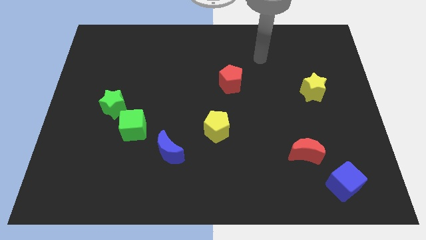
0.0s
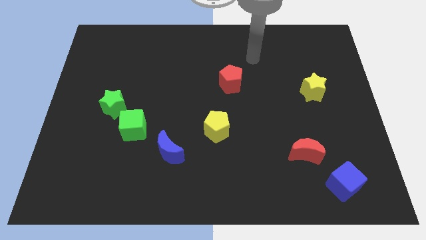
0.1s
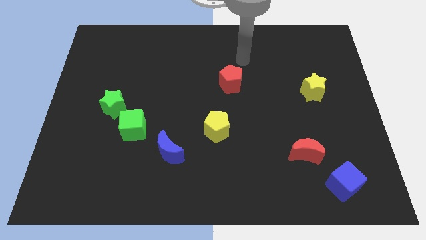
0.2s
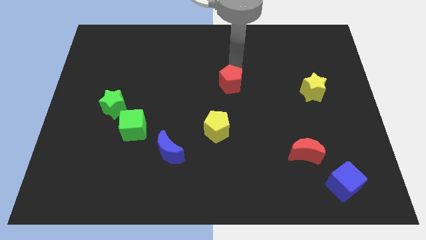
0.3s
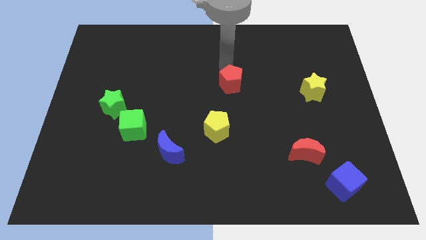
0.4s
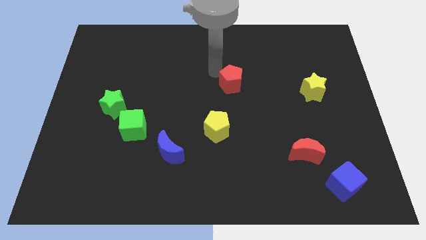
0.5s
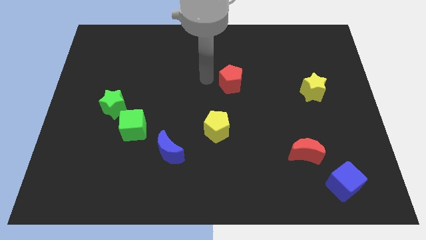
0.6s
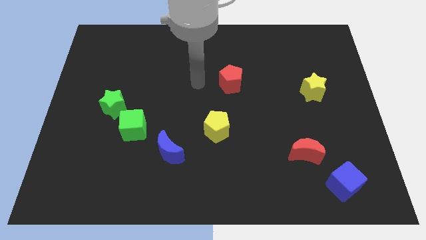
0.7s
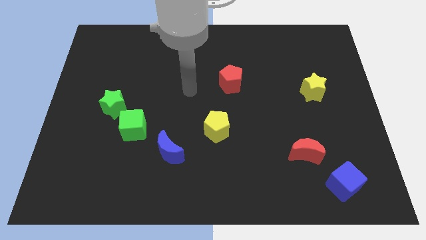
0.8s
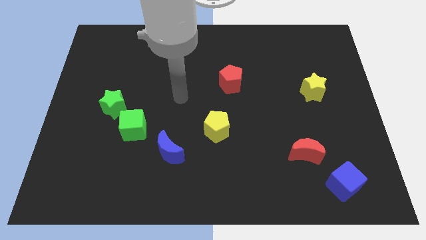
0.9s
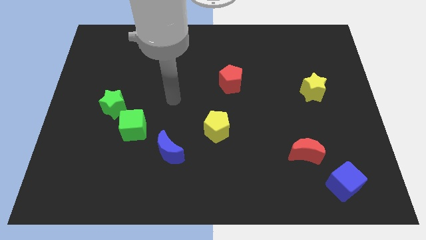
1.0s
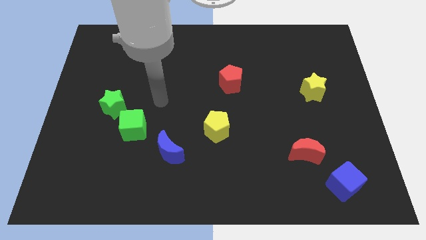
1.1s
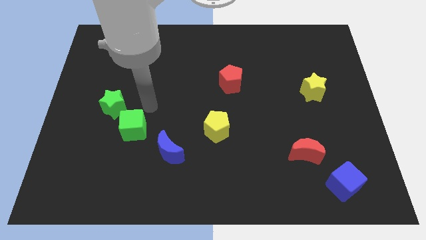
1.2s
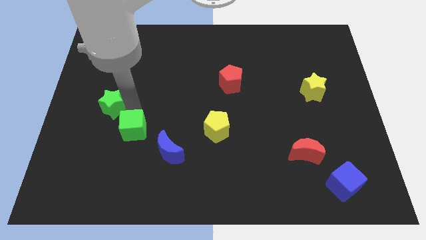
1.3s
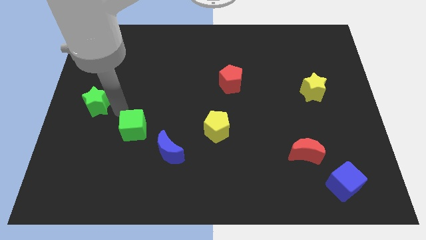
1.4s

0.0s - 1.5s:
move the green cube away from the green star

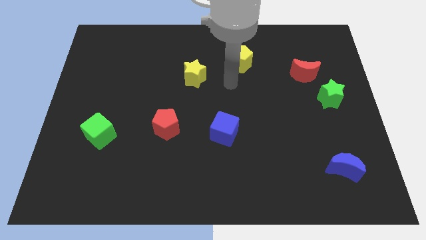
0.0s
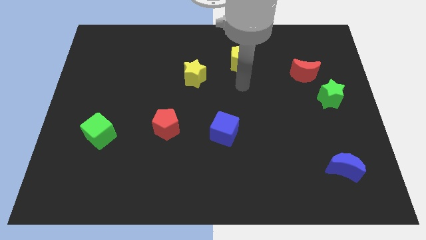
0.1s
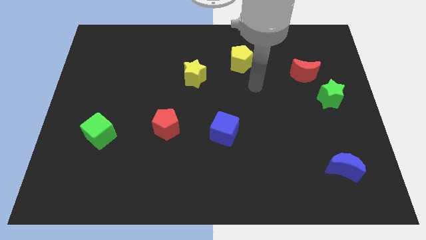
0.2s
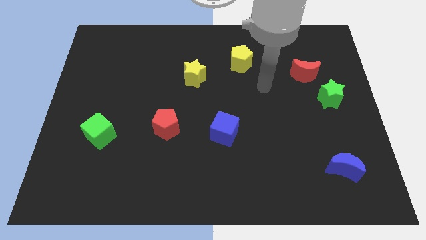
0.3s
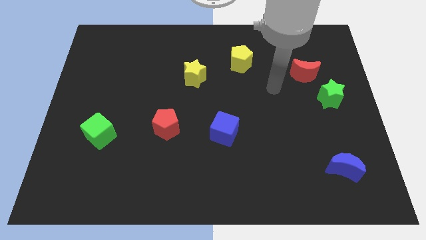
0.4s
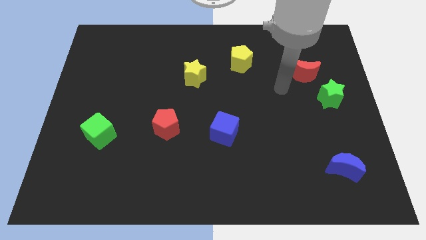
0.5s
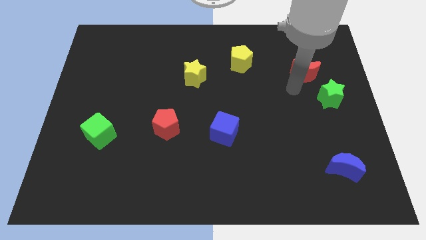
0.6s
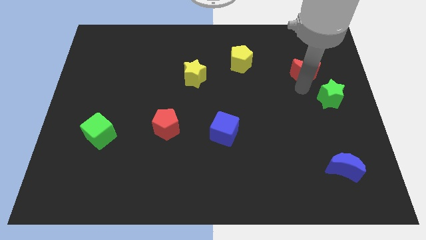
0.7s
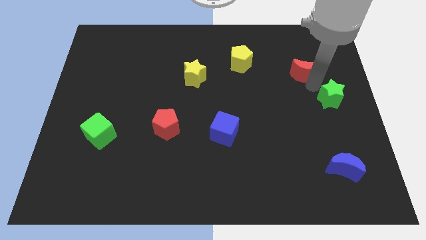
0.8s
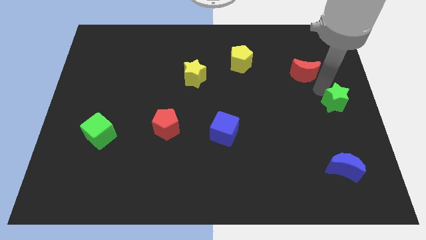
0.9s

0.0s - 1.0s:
pull the red moon apart from the green star

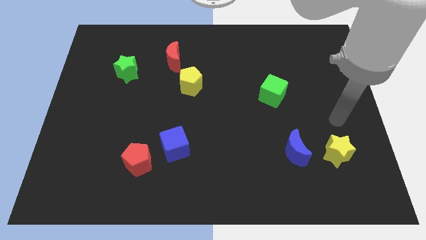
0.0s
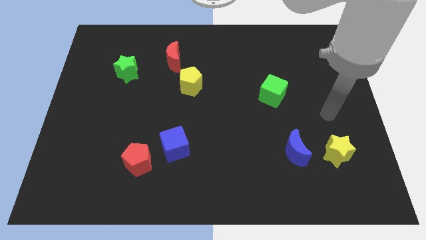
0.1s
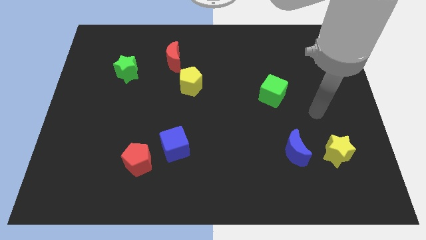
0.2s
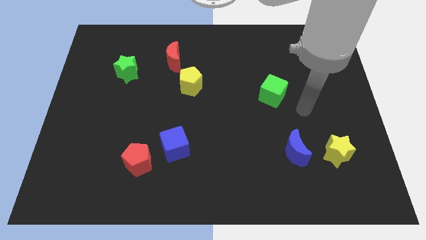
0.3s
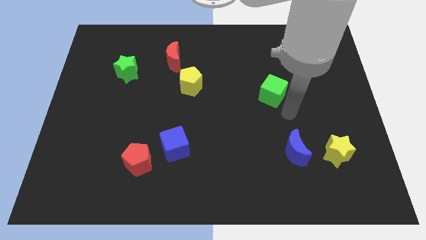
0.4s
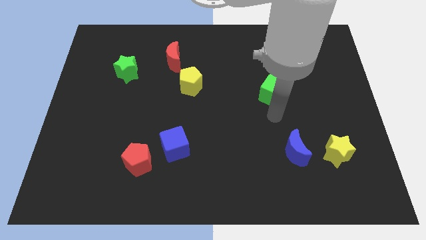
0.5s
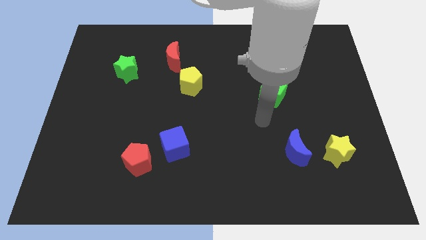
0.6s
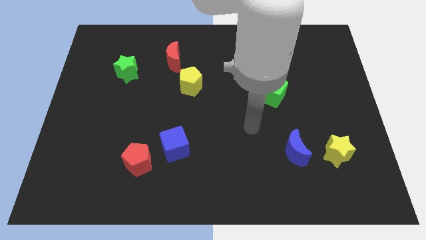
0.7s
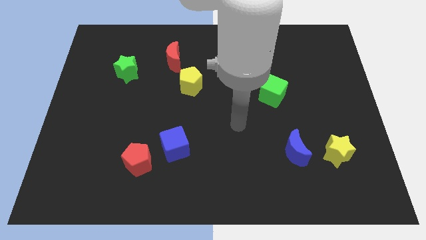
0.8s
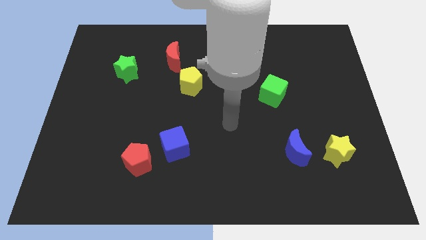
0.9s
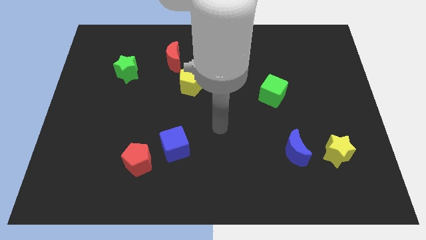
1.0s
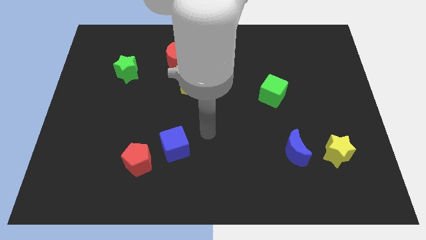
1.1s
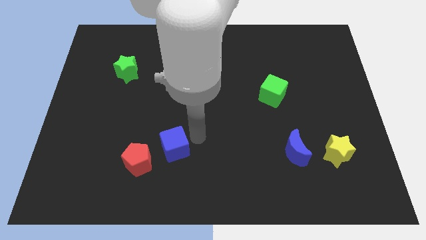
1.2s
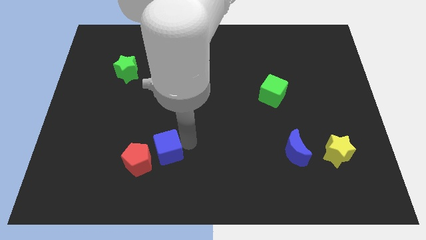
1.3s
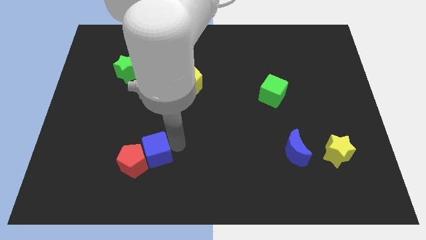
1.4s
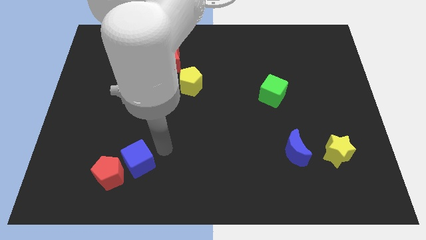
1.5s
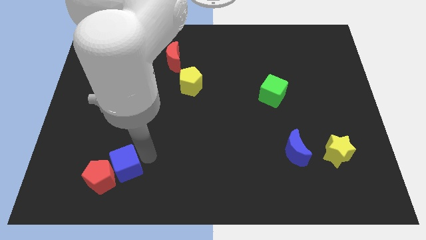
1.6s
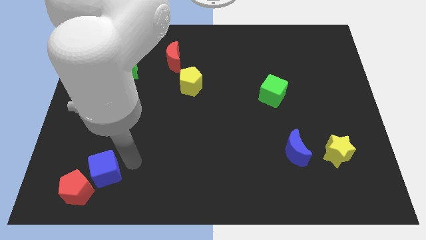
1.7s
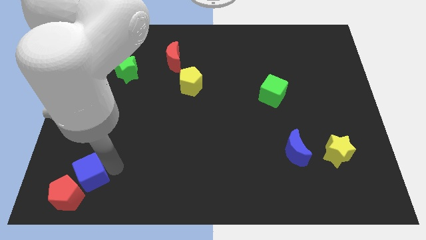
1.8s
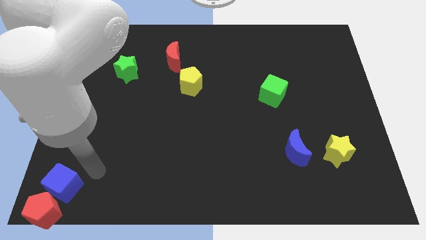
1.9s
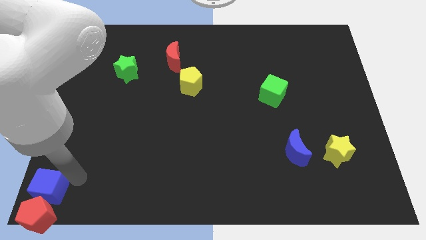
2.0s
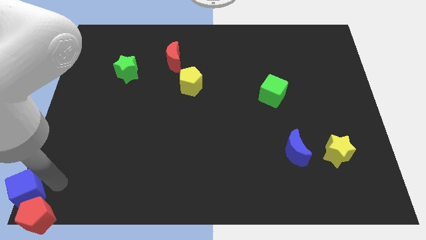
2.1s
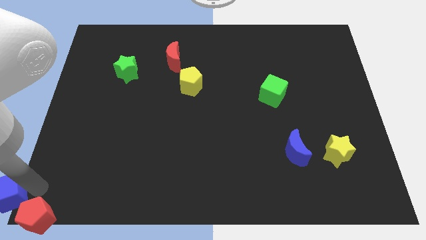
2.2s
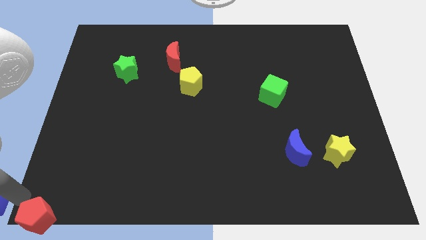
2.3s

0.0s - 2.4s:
pull the red pentagon apart from the blue cube

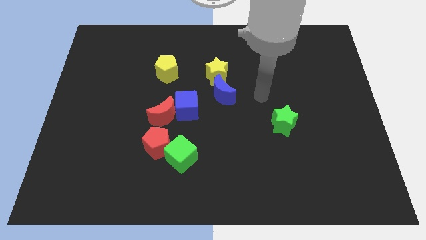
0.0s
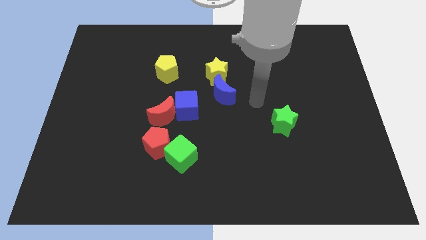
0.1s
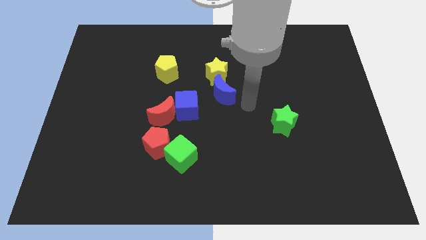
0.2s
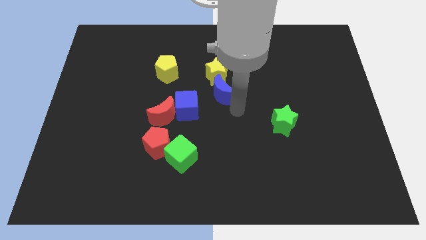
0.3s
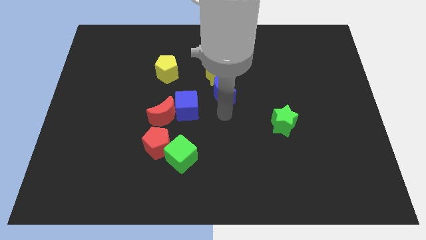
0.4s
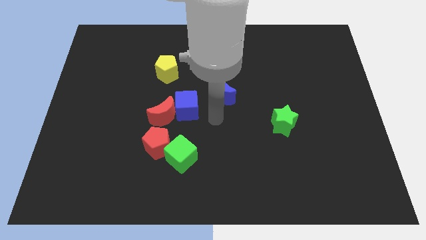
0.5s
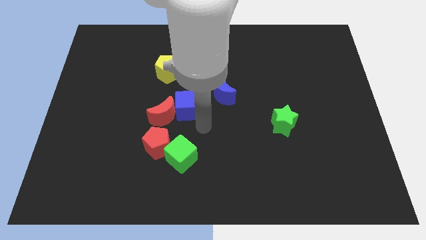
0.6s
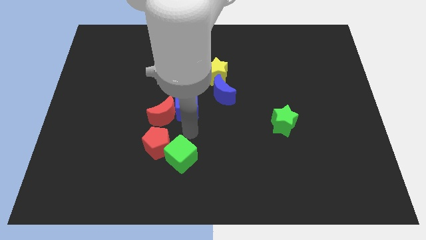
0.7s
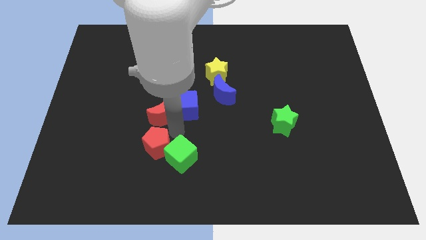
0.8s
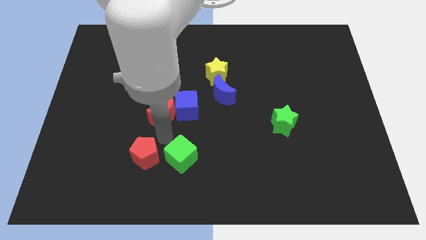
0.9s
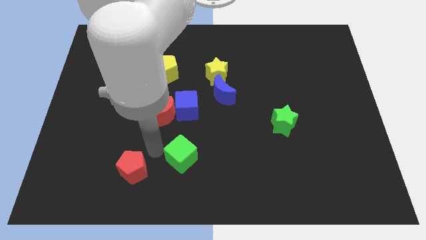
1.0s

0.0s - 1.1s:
pull the green cube apart from the red pentagon

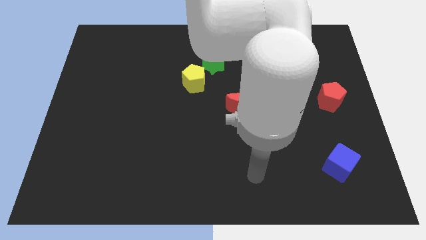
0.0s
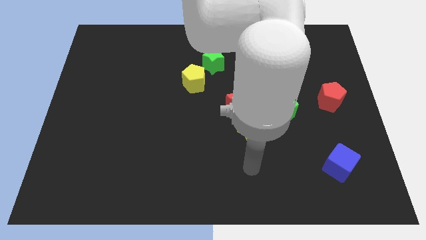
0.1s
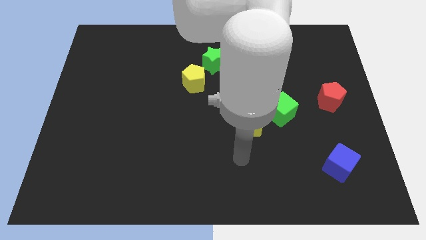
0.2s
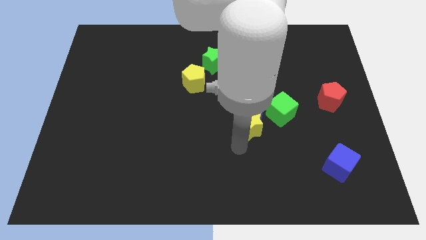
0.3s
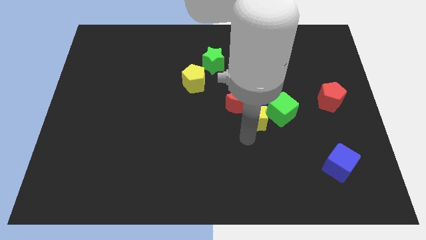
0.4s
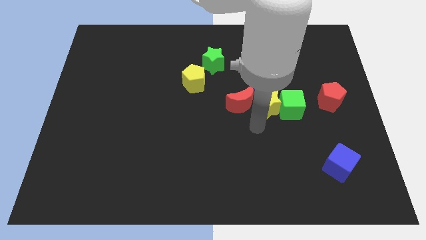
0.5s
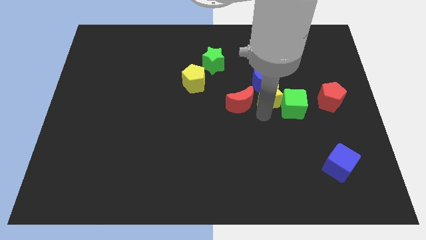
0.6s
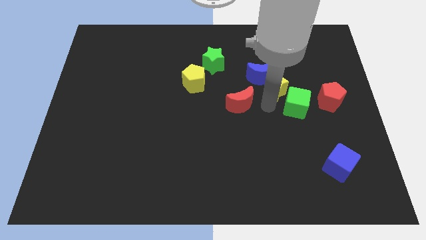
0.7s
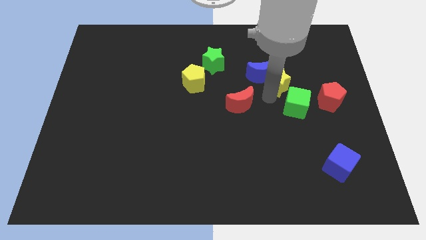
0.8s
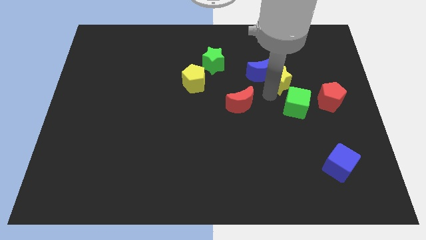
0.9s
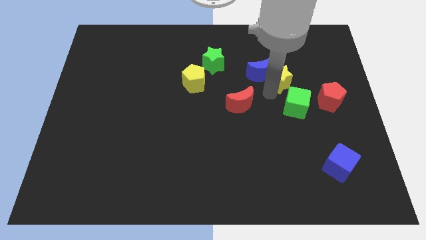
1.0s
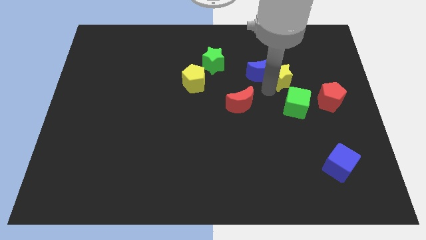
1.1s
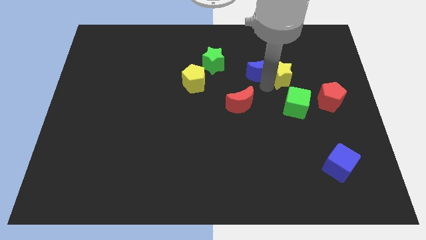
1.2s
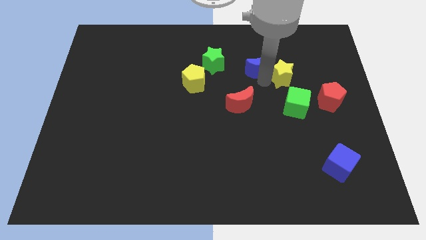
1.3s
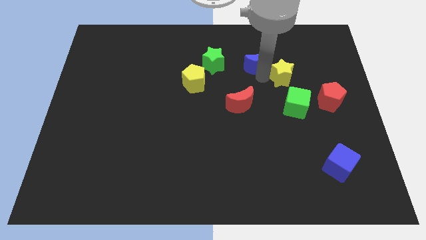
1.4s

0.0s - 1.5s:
pull the blue moon apart from the red moon, green cube, and yellow star

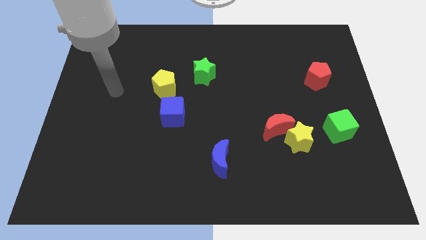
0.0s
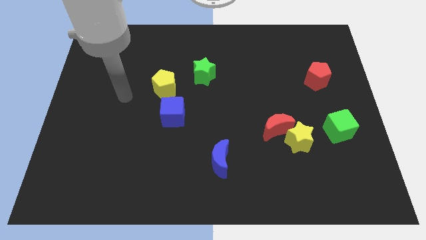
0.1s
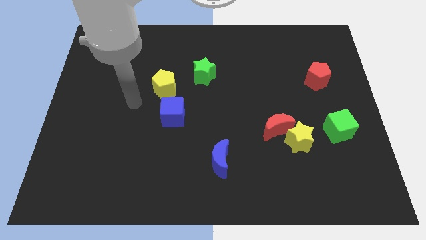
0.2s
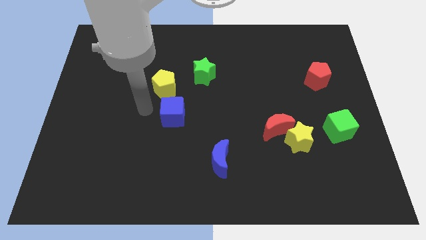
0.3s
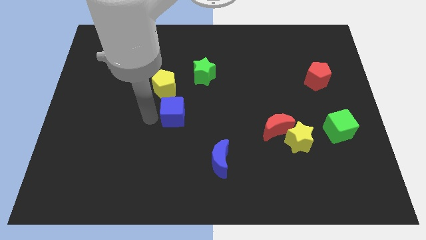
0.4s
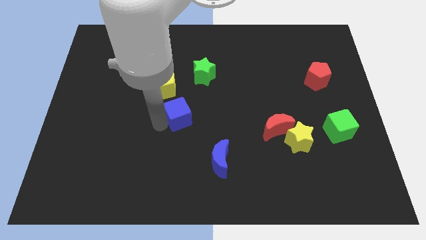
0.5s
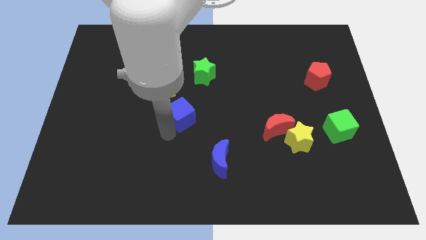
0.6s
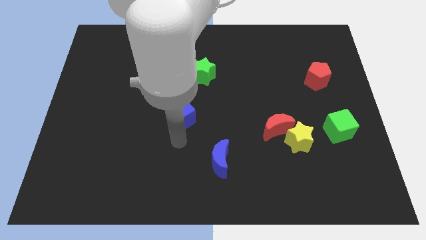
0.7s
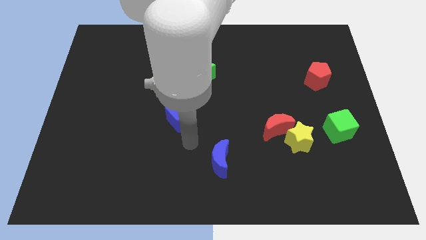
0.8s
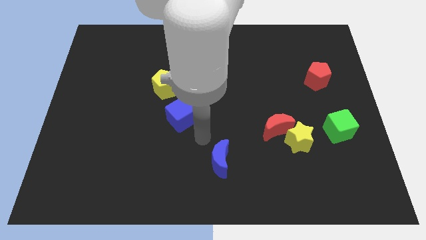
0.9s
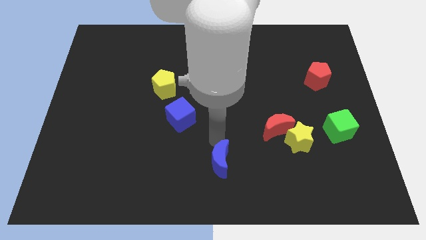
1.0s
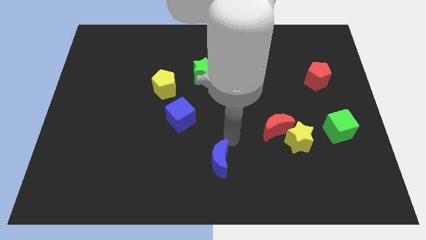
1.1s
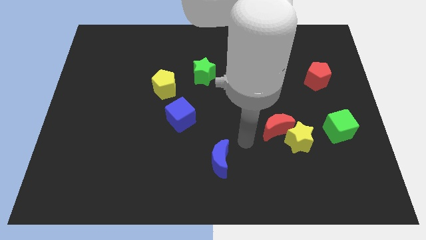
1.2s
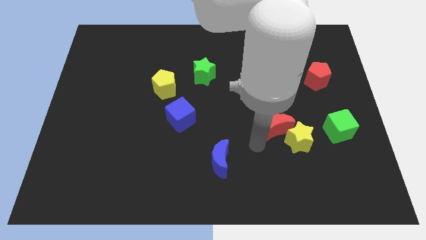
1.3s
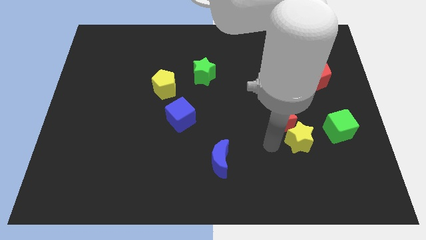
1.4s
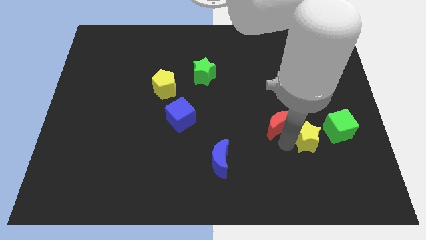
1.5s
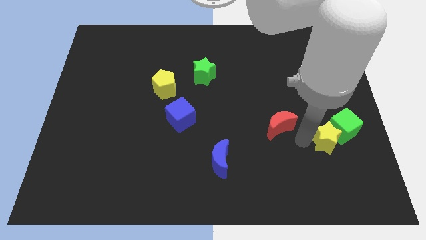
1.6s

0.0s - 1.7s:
separate the red moon from the yellow star

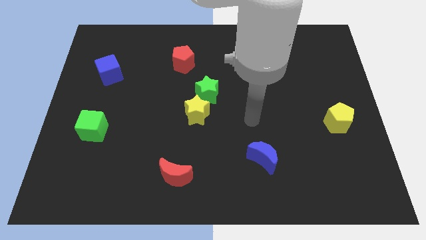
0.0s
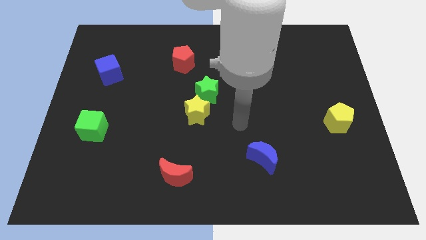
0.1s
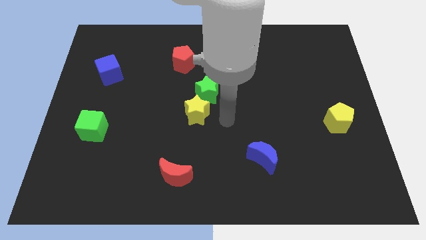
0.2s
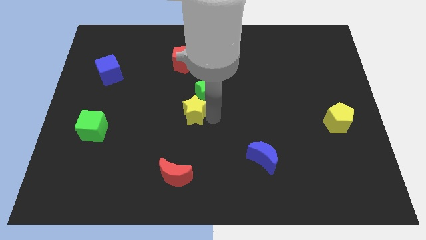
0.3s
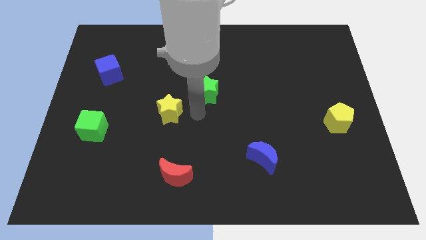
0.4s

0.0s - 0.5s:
separate the green star from the yellow star
